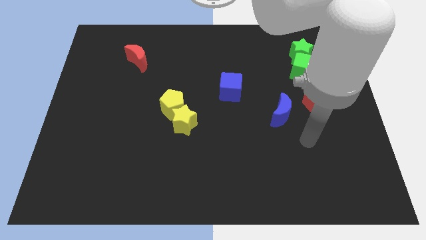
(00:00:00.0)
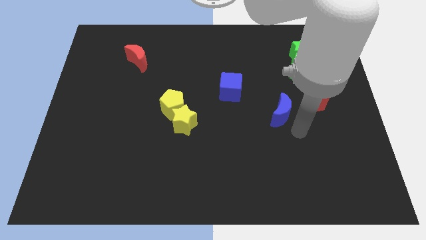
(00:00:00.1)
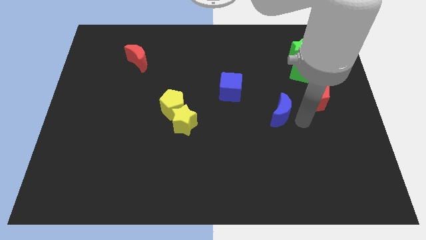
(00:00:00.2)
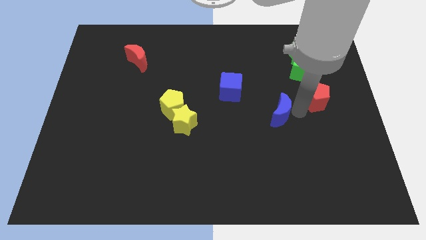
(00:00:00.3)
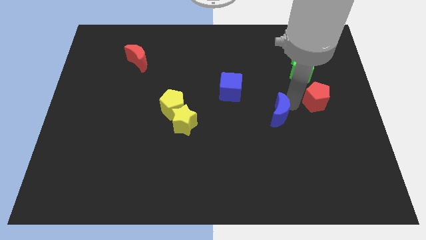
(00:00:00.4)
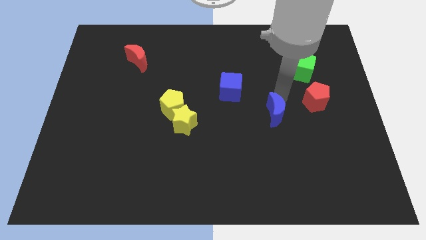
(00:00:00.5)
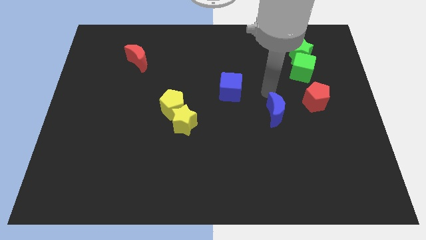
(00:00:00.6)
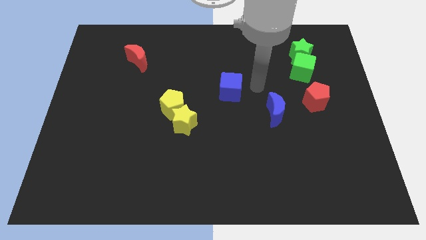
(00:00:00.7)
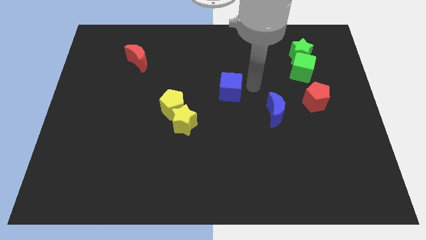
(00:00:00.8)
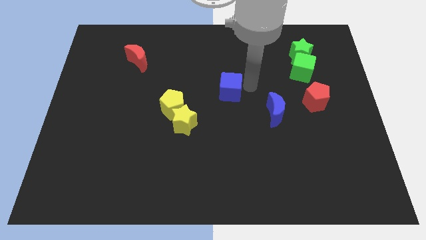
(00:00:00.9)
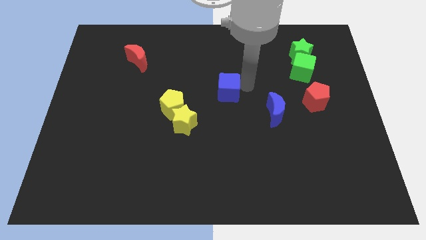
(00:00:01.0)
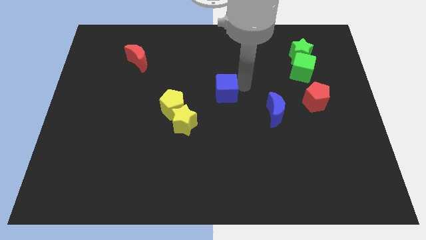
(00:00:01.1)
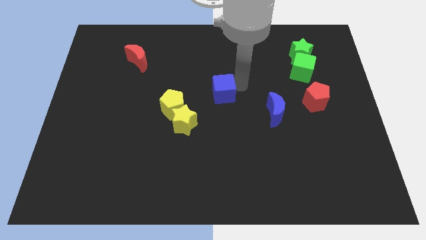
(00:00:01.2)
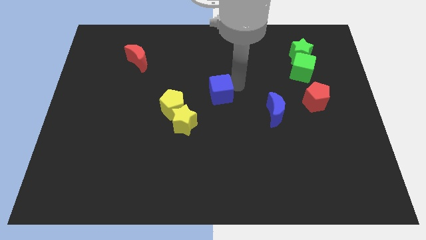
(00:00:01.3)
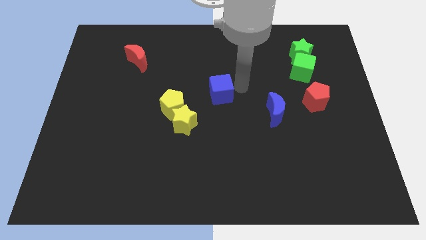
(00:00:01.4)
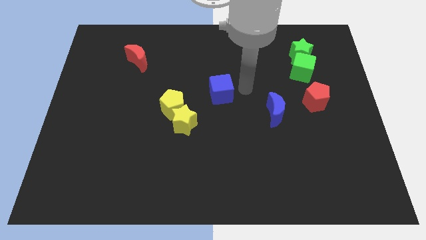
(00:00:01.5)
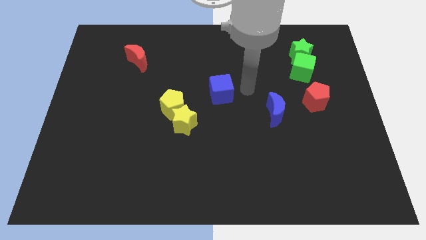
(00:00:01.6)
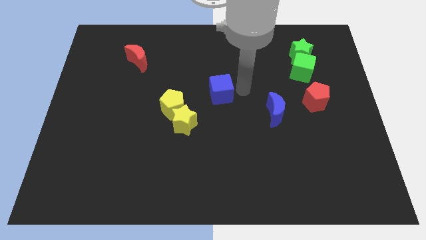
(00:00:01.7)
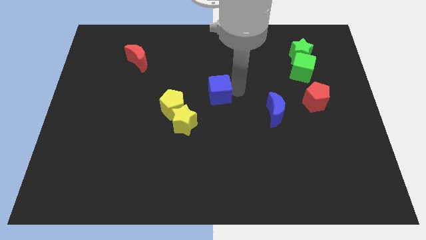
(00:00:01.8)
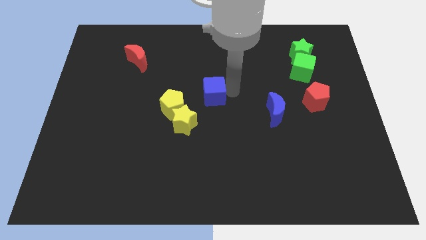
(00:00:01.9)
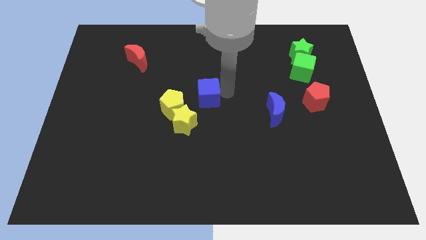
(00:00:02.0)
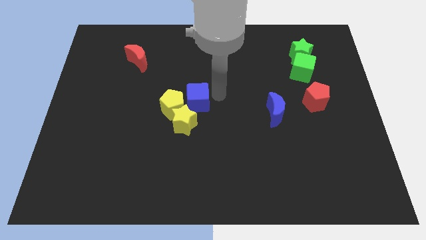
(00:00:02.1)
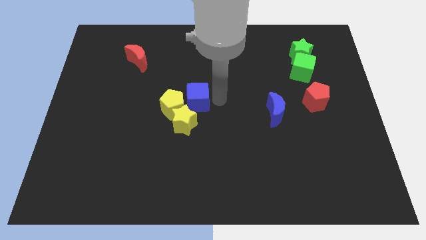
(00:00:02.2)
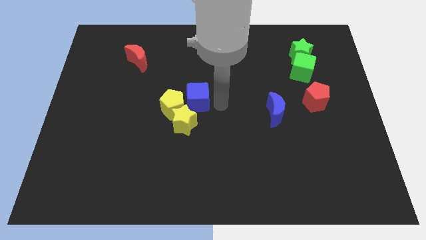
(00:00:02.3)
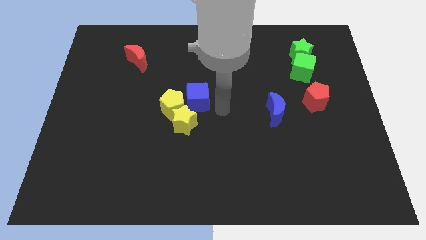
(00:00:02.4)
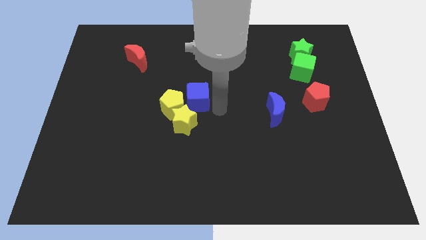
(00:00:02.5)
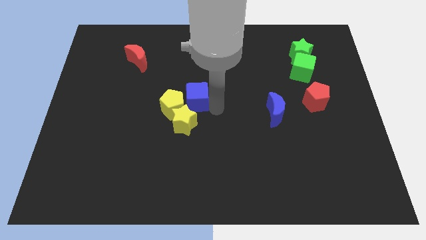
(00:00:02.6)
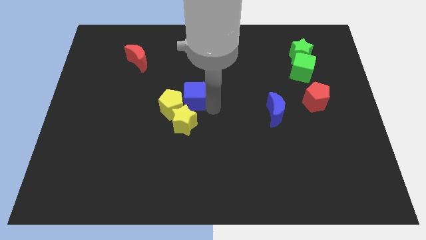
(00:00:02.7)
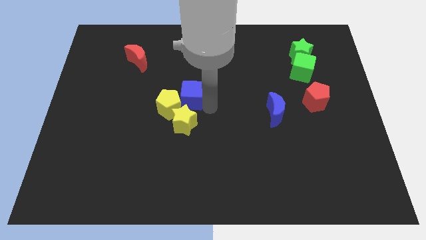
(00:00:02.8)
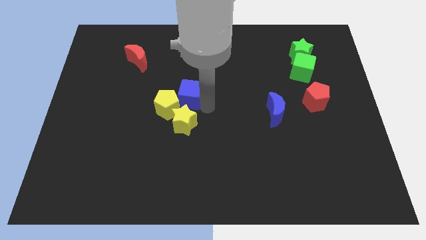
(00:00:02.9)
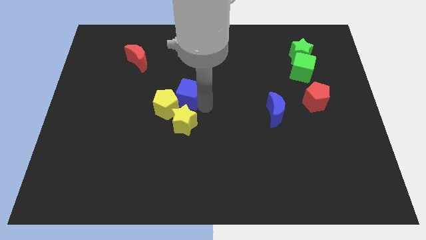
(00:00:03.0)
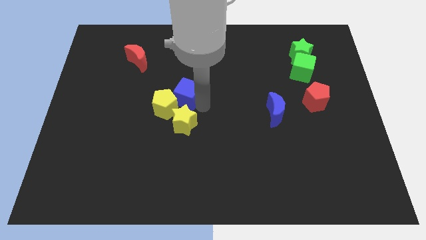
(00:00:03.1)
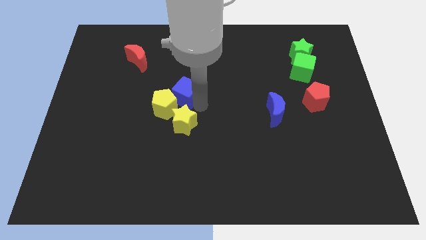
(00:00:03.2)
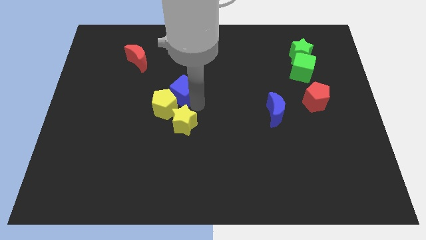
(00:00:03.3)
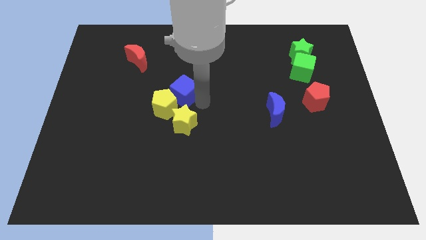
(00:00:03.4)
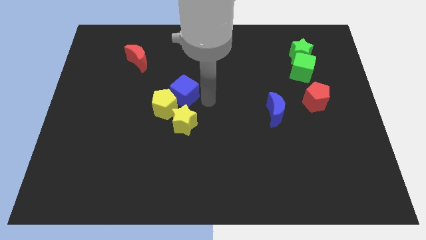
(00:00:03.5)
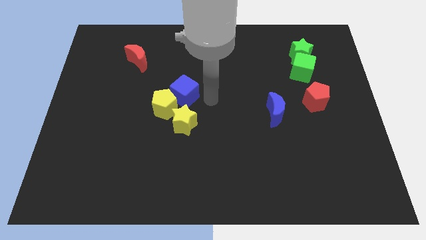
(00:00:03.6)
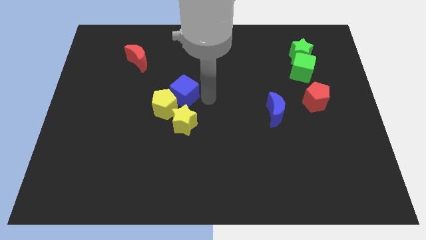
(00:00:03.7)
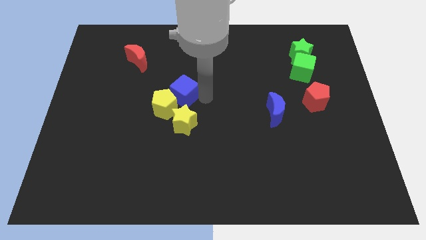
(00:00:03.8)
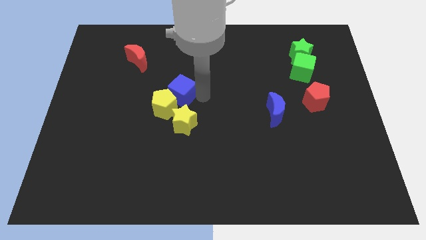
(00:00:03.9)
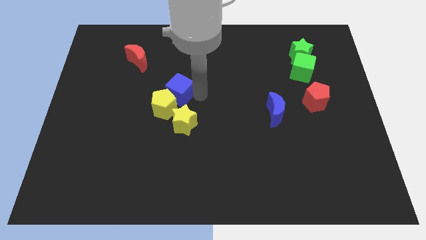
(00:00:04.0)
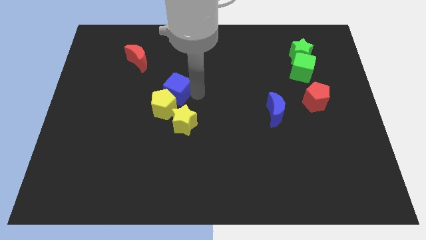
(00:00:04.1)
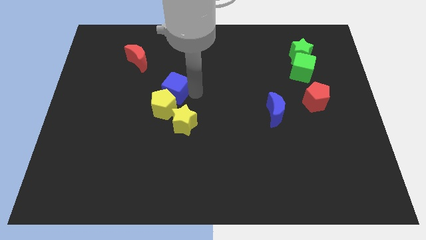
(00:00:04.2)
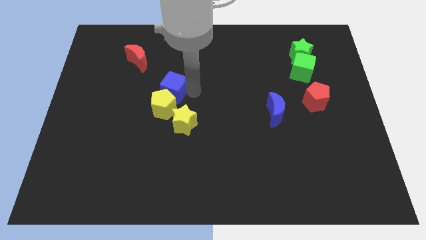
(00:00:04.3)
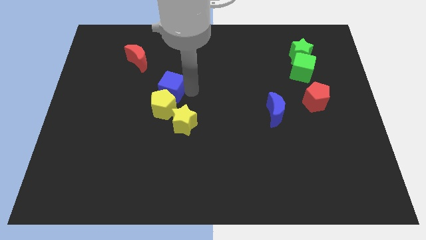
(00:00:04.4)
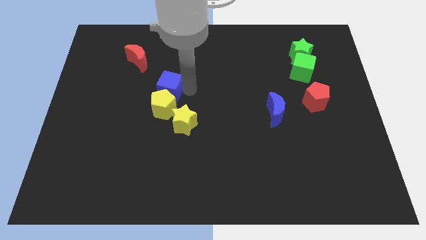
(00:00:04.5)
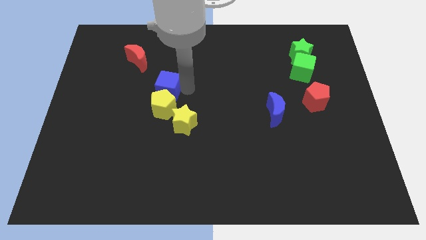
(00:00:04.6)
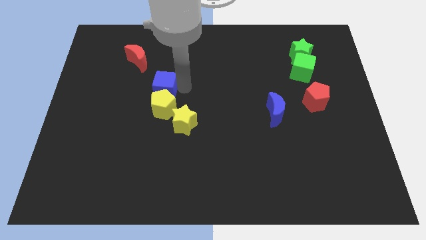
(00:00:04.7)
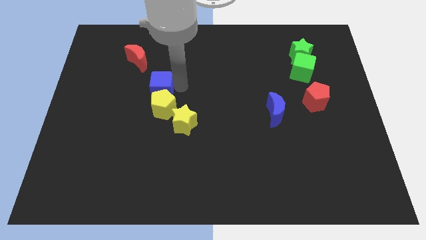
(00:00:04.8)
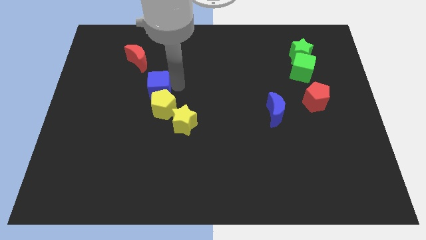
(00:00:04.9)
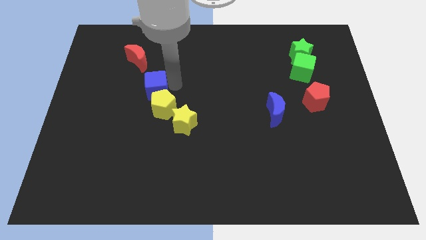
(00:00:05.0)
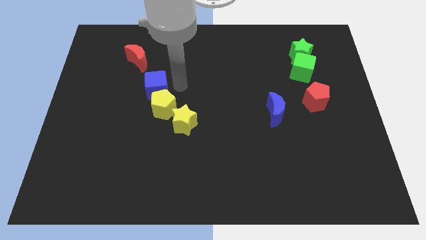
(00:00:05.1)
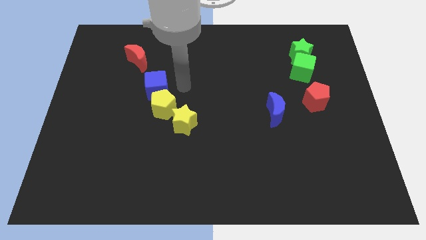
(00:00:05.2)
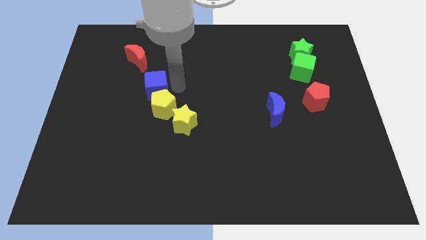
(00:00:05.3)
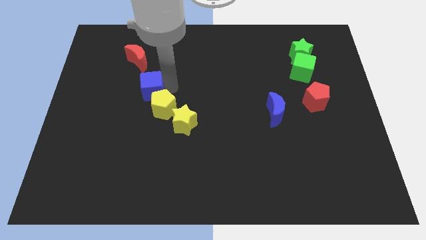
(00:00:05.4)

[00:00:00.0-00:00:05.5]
push the blue cube below the red moon

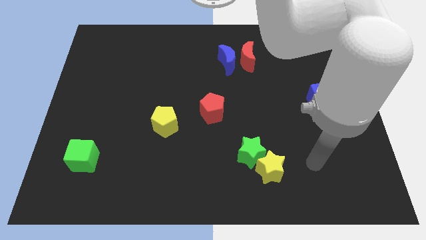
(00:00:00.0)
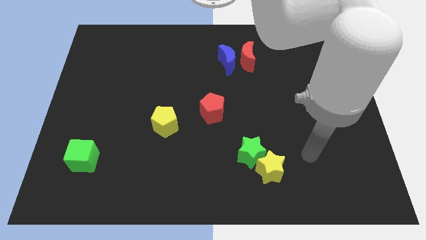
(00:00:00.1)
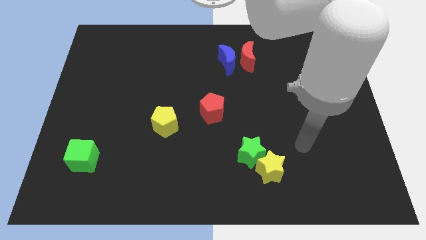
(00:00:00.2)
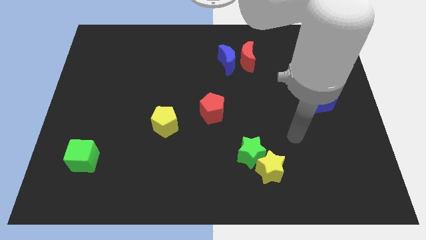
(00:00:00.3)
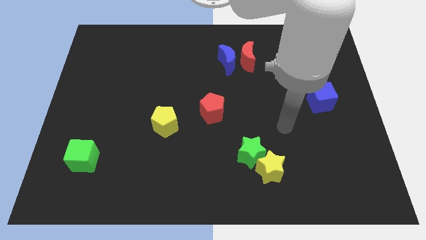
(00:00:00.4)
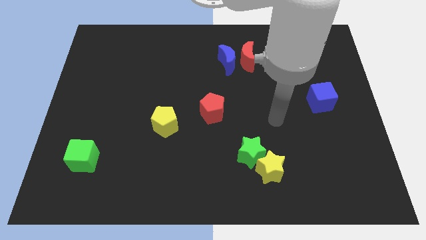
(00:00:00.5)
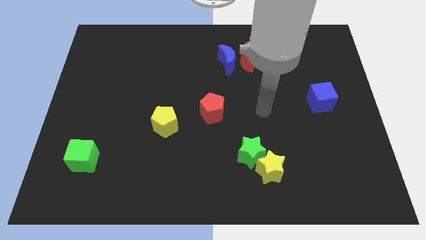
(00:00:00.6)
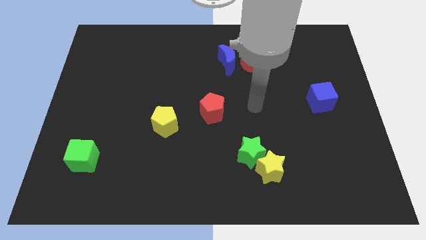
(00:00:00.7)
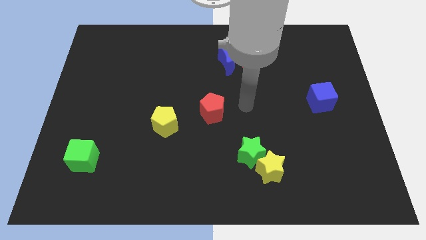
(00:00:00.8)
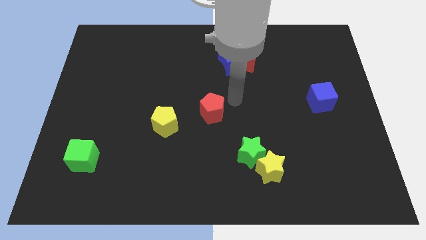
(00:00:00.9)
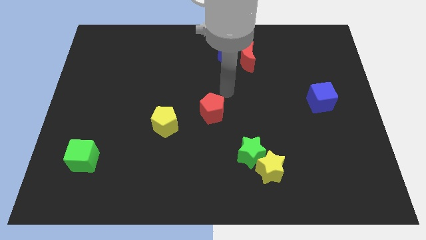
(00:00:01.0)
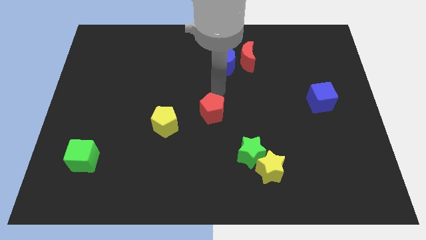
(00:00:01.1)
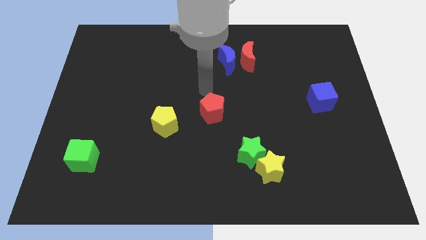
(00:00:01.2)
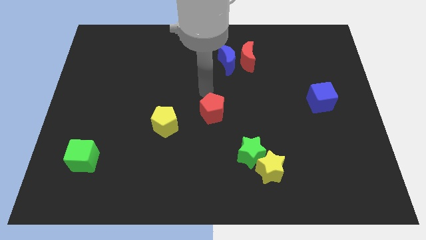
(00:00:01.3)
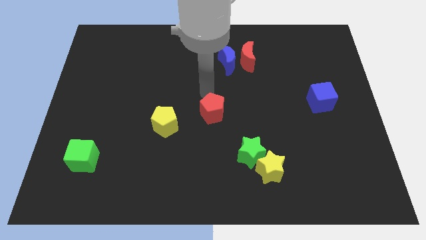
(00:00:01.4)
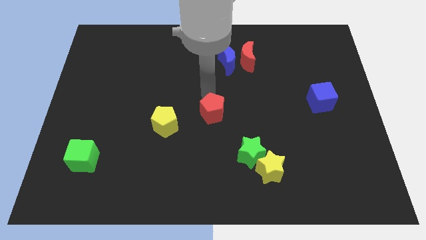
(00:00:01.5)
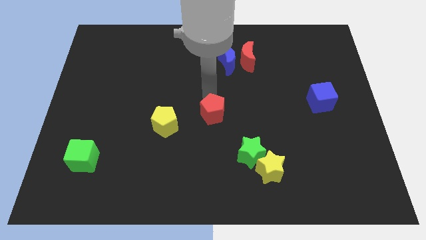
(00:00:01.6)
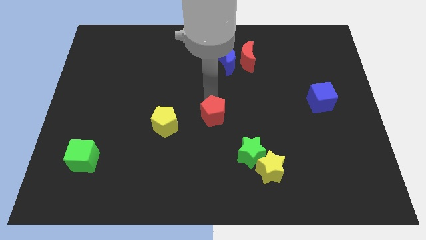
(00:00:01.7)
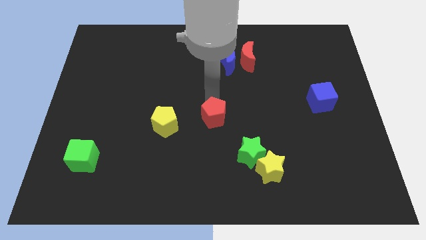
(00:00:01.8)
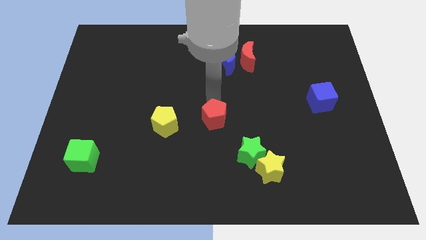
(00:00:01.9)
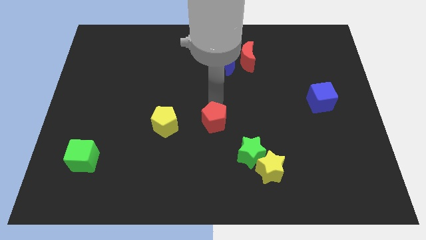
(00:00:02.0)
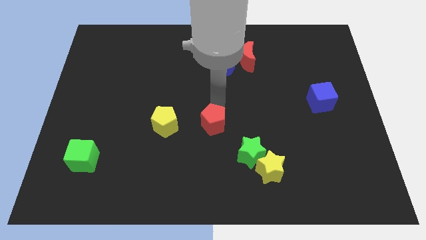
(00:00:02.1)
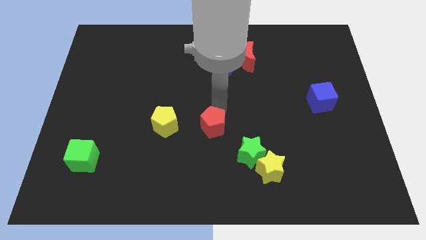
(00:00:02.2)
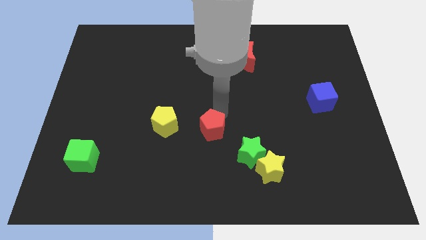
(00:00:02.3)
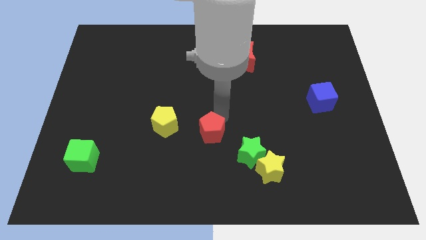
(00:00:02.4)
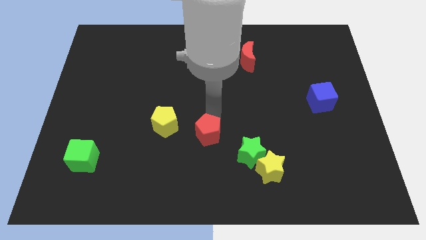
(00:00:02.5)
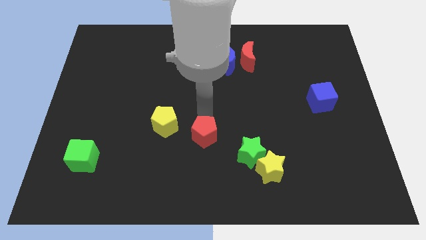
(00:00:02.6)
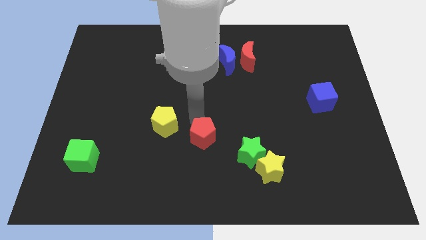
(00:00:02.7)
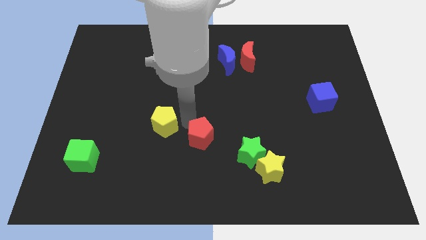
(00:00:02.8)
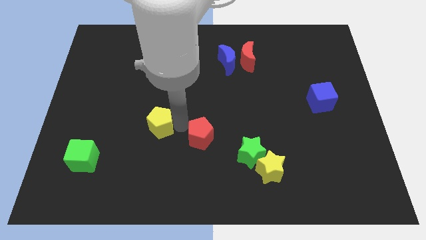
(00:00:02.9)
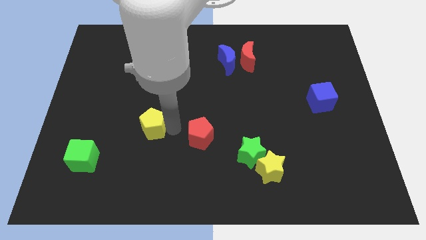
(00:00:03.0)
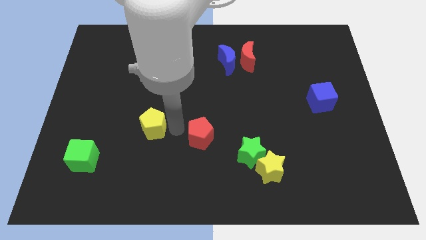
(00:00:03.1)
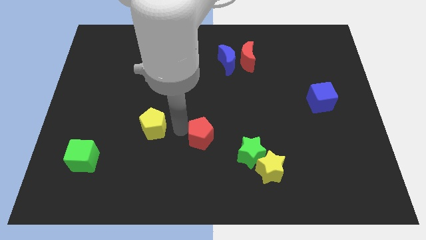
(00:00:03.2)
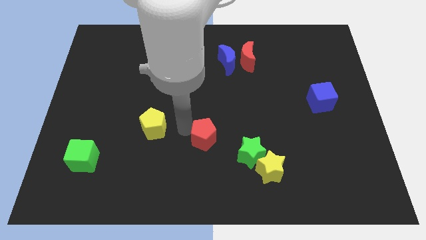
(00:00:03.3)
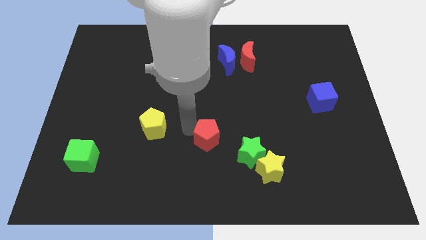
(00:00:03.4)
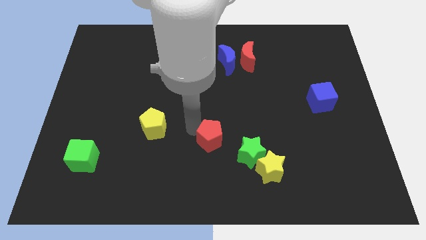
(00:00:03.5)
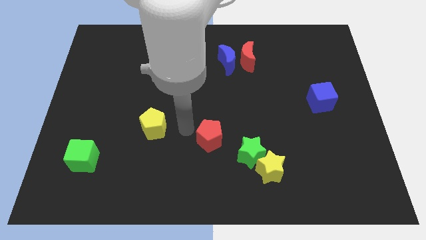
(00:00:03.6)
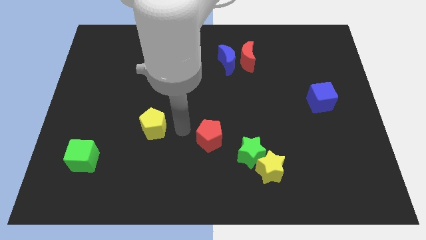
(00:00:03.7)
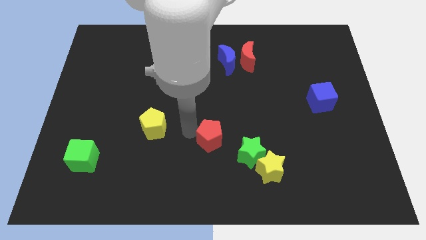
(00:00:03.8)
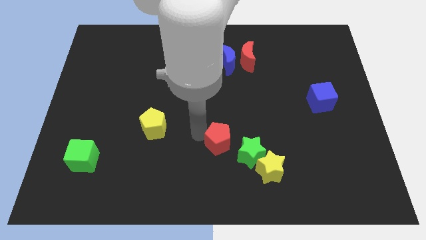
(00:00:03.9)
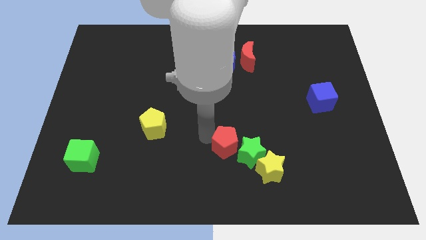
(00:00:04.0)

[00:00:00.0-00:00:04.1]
move the red pentagon to the top left of the yellow star
